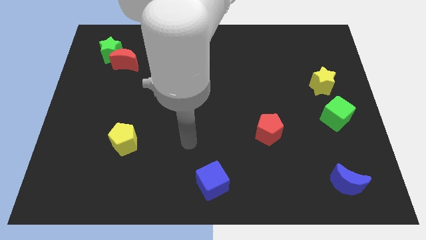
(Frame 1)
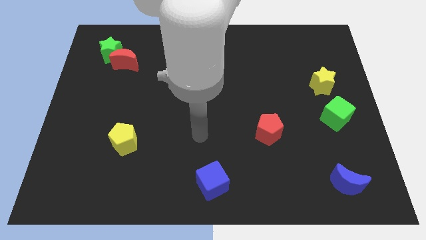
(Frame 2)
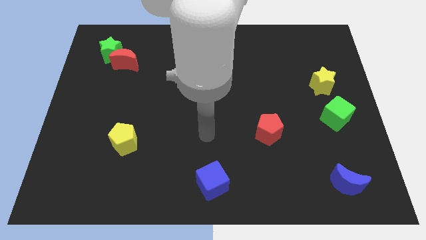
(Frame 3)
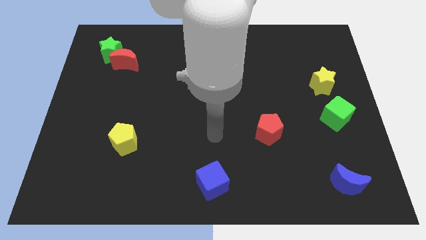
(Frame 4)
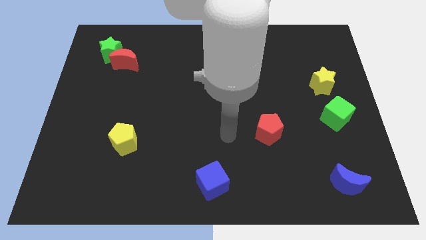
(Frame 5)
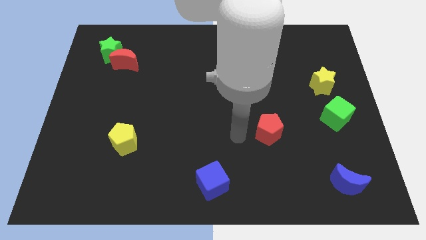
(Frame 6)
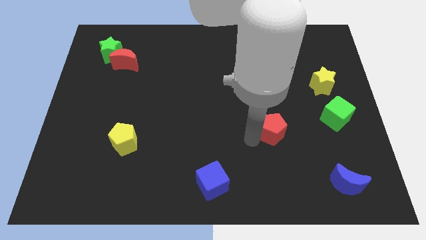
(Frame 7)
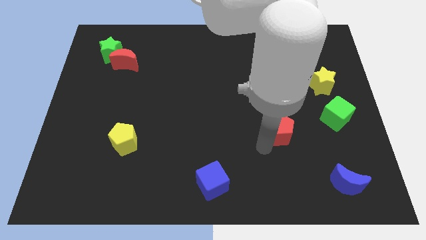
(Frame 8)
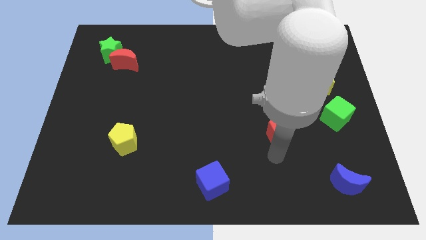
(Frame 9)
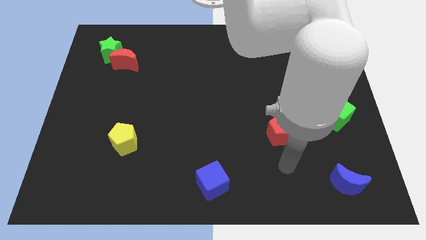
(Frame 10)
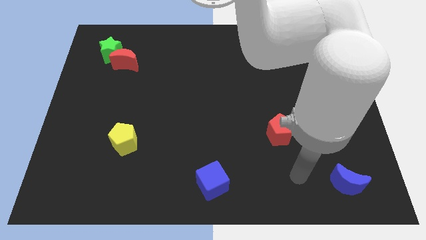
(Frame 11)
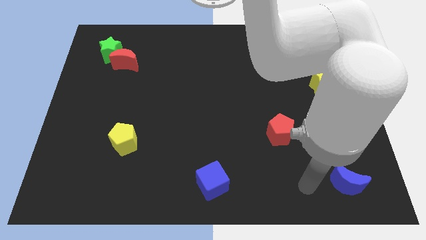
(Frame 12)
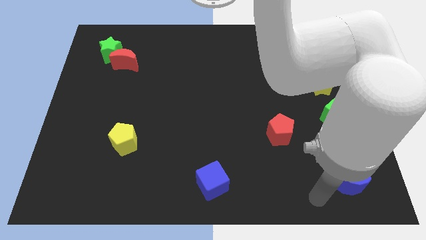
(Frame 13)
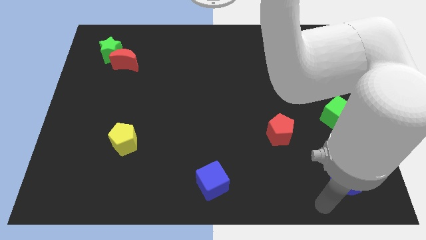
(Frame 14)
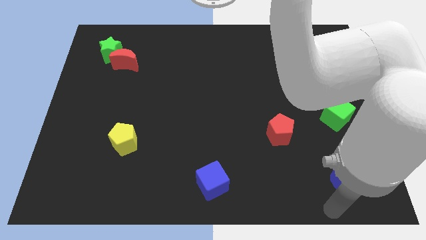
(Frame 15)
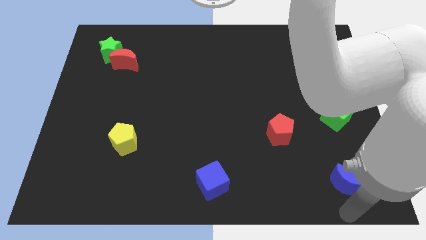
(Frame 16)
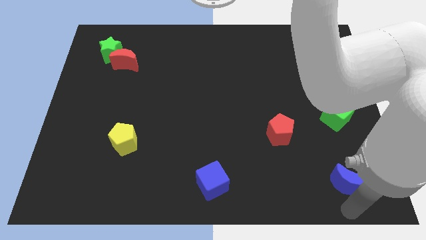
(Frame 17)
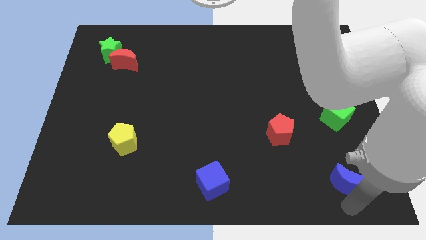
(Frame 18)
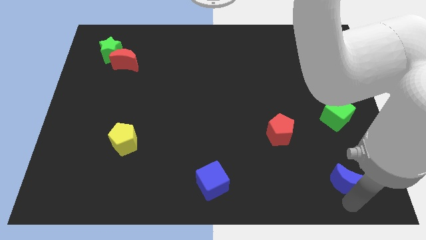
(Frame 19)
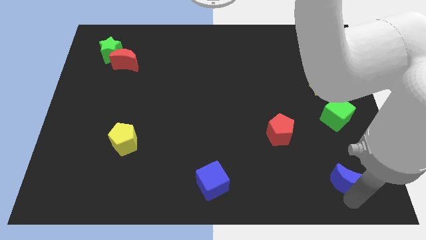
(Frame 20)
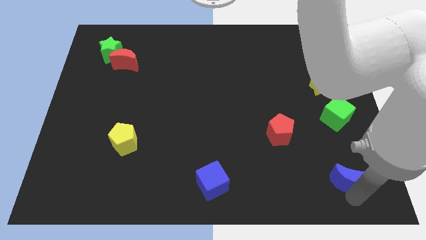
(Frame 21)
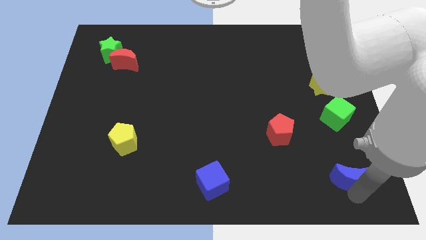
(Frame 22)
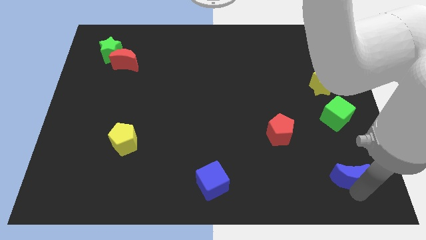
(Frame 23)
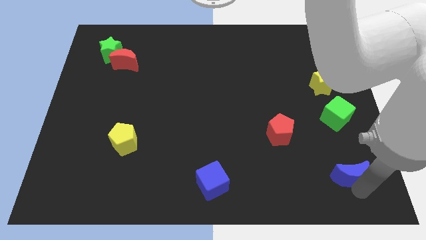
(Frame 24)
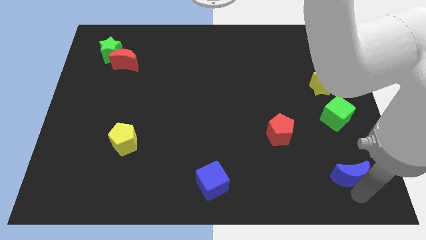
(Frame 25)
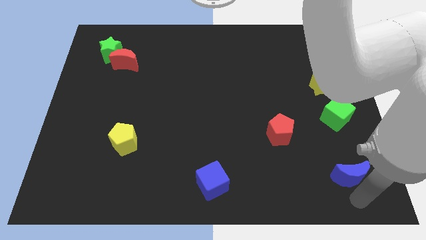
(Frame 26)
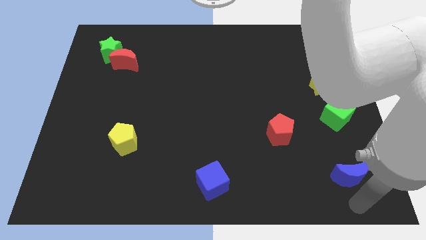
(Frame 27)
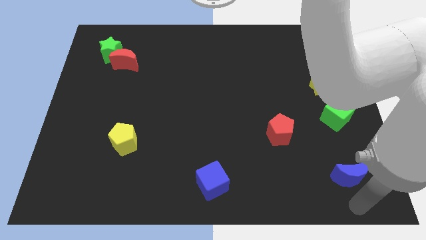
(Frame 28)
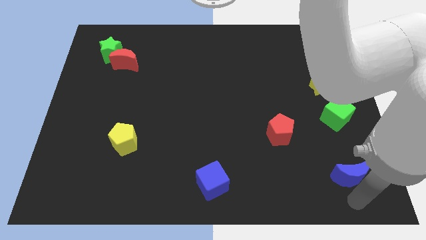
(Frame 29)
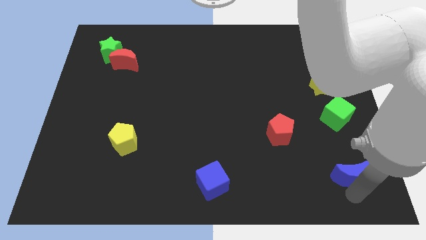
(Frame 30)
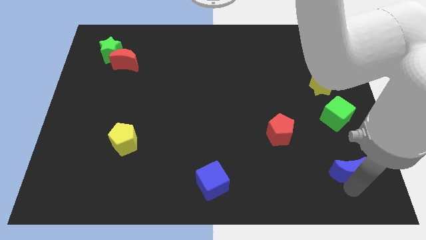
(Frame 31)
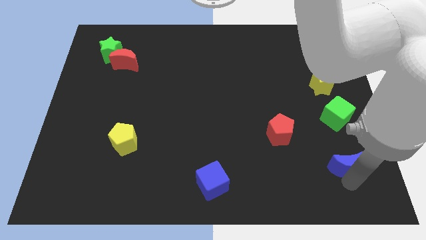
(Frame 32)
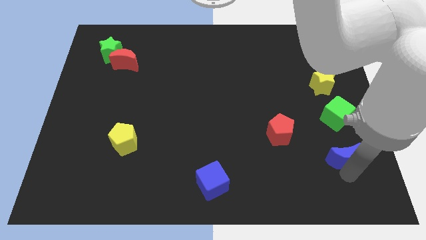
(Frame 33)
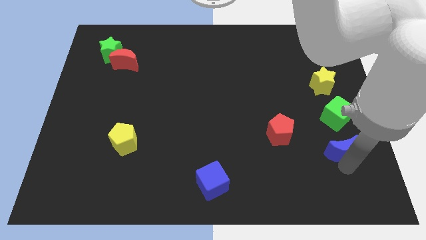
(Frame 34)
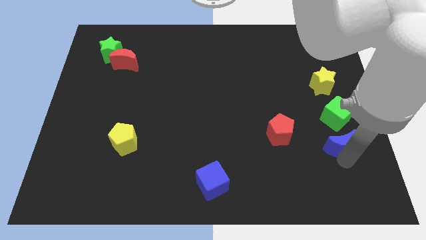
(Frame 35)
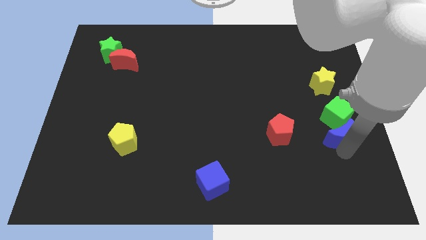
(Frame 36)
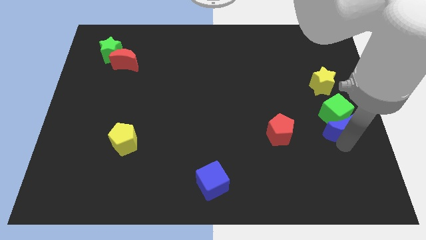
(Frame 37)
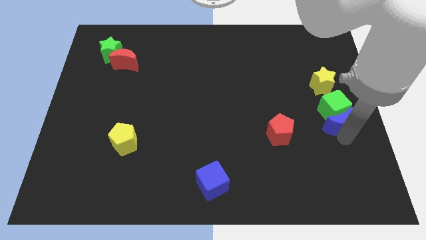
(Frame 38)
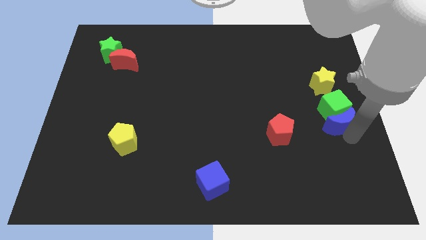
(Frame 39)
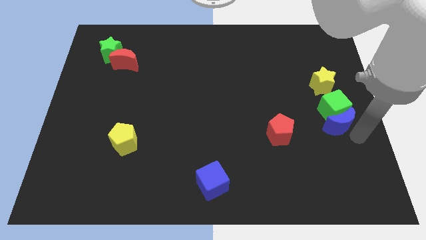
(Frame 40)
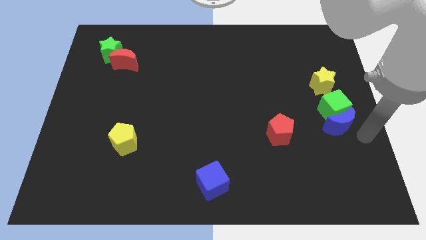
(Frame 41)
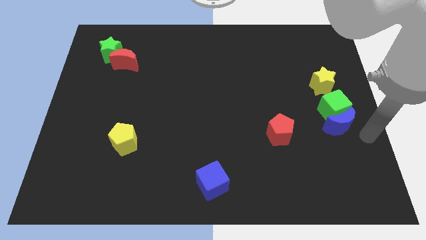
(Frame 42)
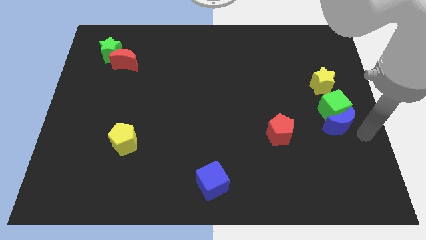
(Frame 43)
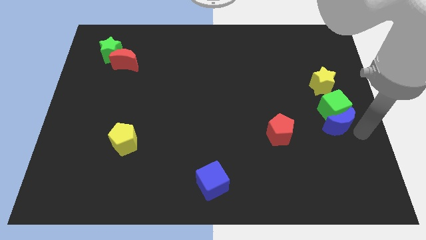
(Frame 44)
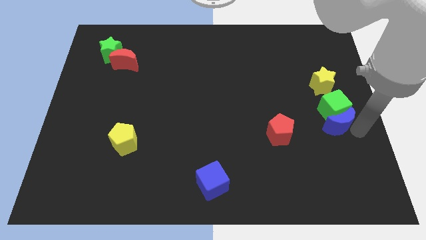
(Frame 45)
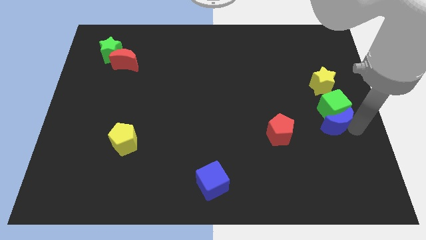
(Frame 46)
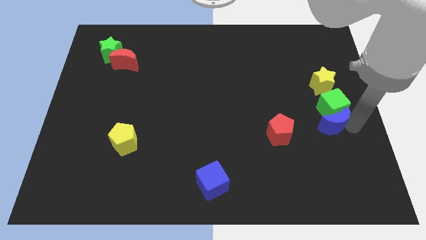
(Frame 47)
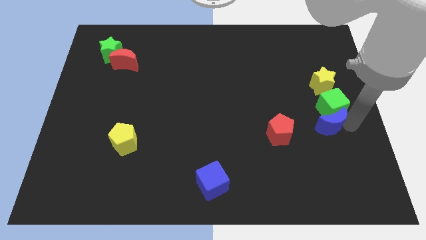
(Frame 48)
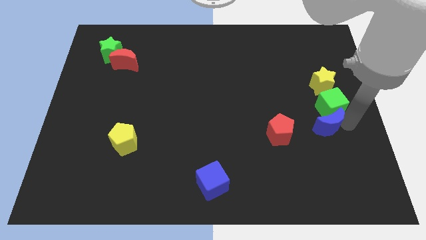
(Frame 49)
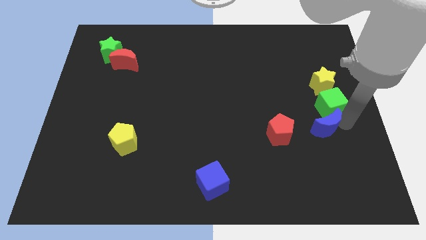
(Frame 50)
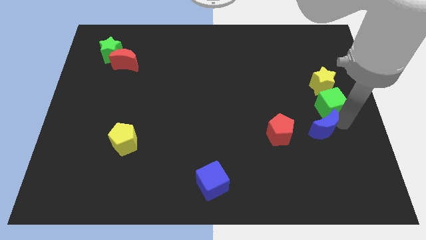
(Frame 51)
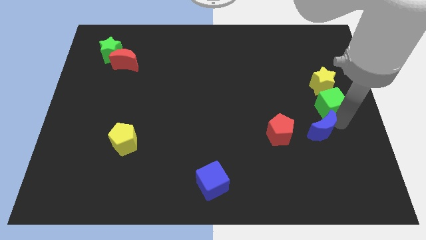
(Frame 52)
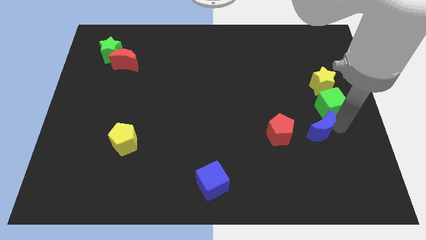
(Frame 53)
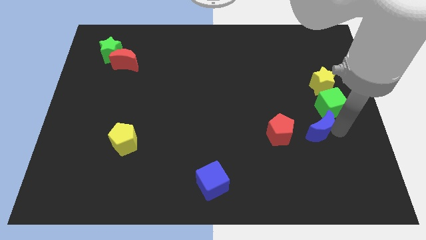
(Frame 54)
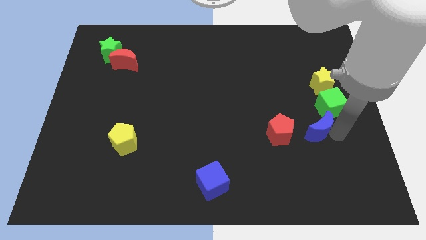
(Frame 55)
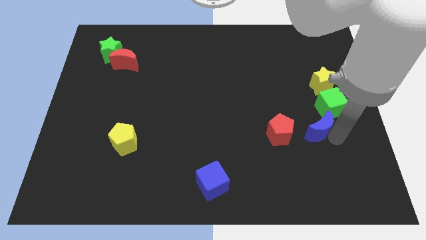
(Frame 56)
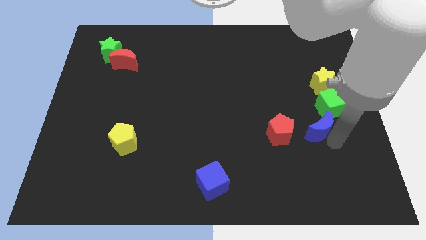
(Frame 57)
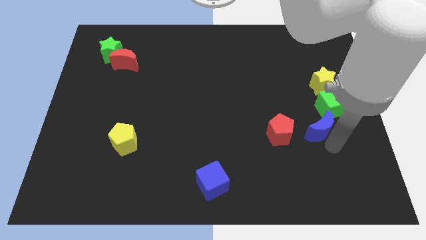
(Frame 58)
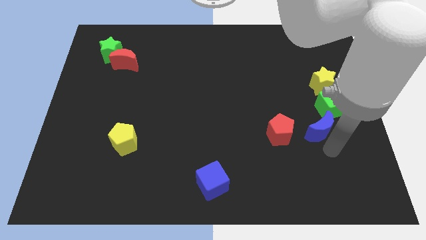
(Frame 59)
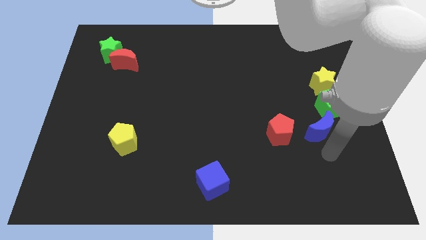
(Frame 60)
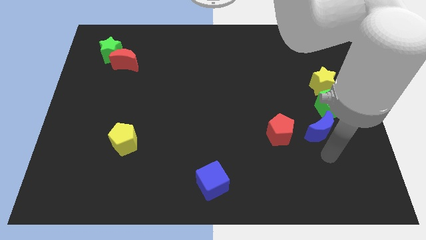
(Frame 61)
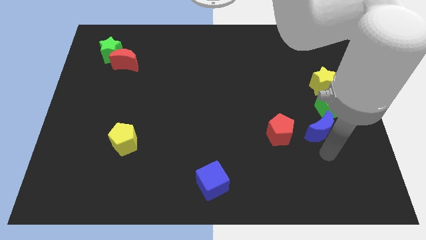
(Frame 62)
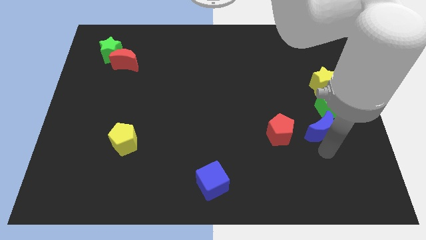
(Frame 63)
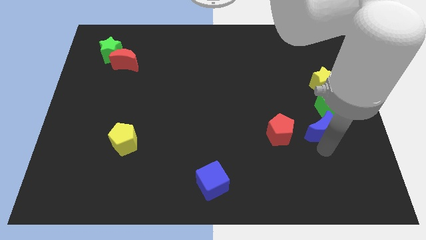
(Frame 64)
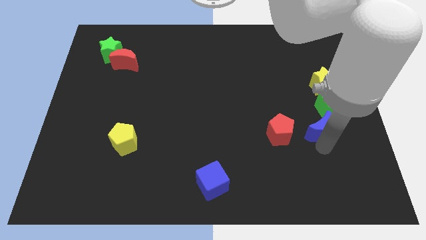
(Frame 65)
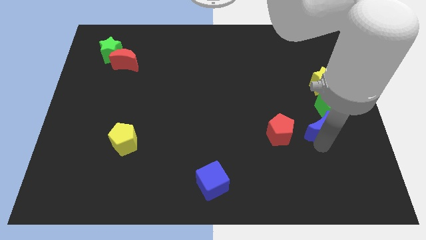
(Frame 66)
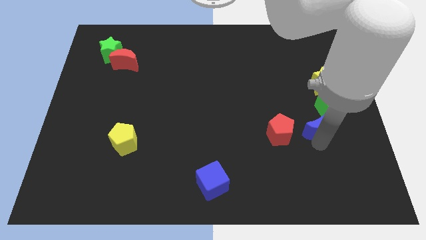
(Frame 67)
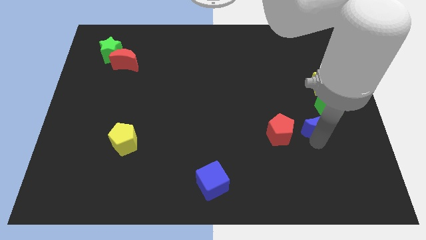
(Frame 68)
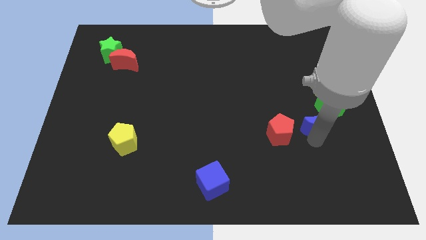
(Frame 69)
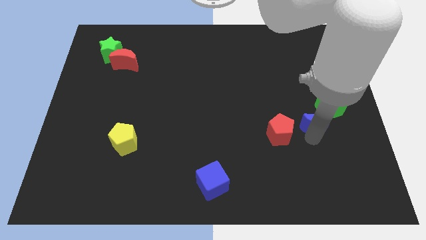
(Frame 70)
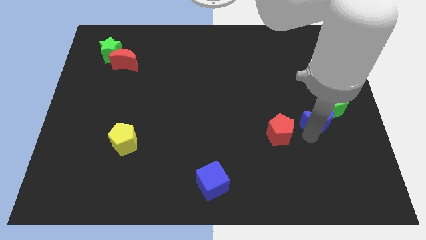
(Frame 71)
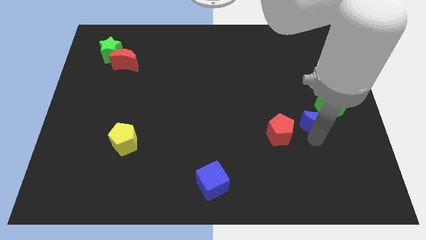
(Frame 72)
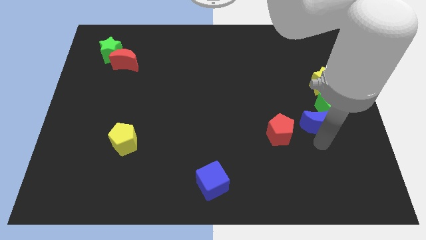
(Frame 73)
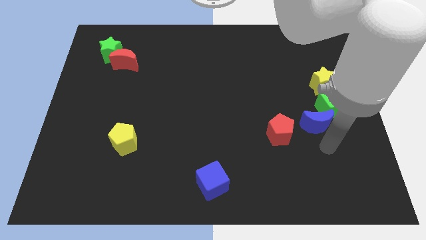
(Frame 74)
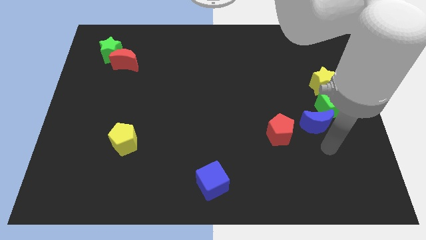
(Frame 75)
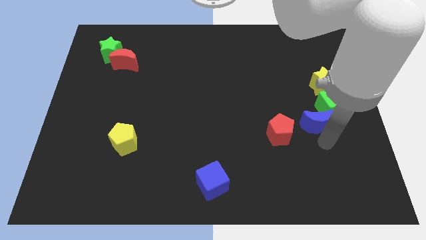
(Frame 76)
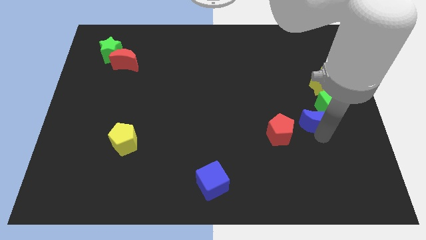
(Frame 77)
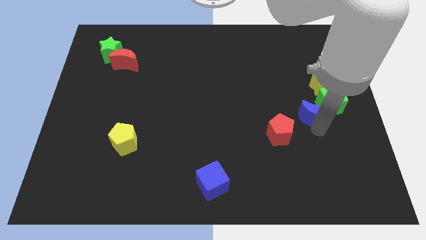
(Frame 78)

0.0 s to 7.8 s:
push the blue moon diagonally down and to the left of the yellow star
